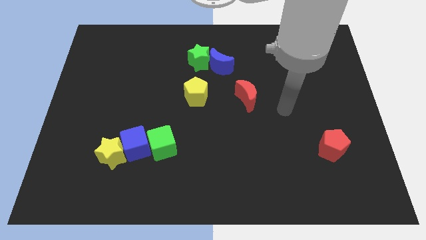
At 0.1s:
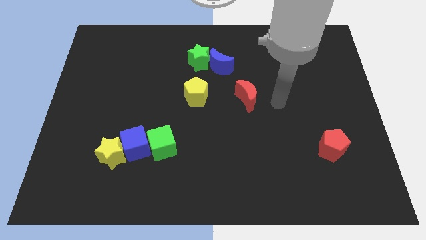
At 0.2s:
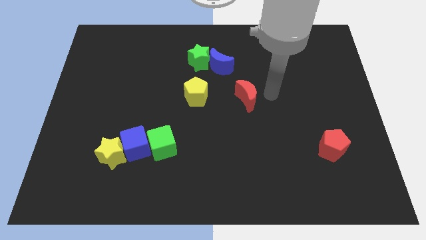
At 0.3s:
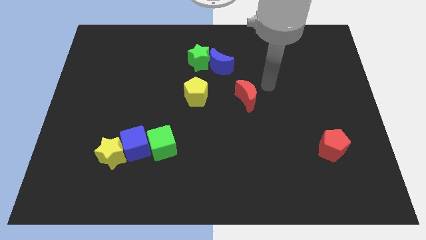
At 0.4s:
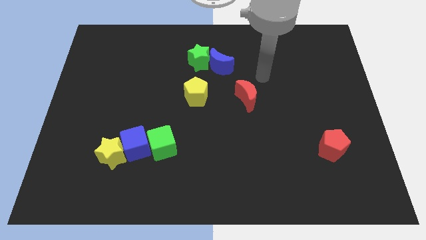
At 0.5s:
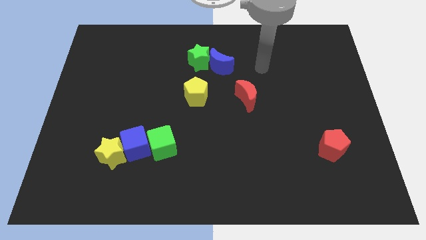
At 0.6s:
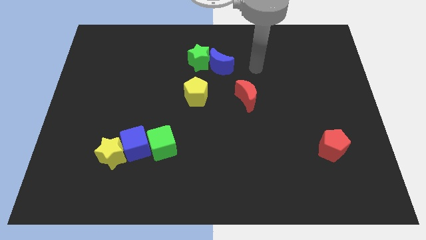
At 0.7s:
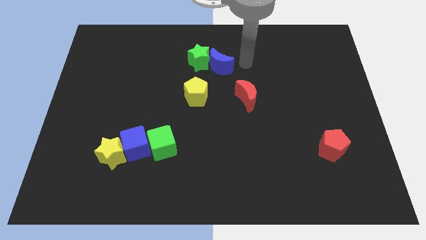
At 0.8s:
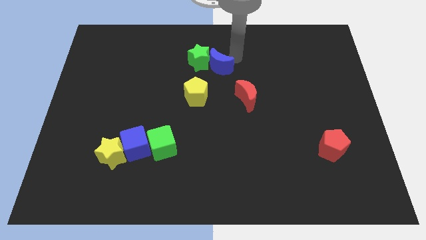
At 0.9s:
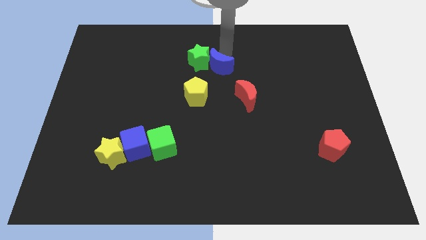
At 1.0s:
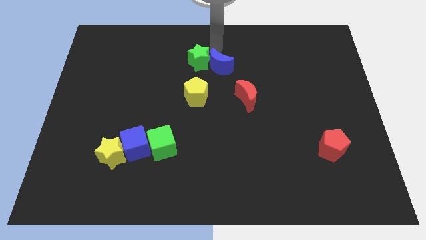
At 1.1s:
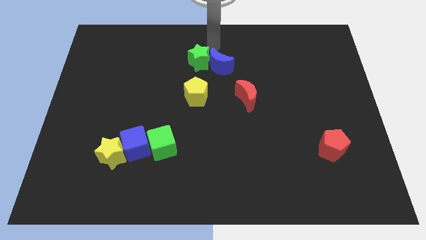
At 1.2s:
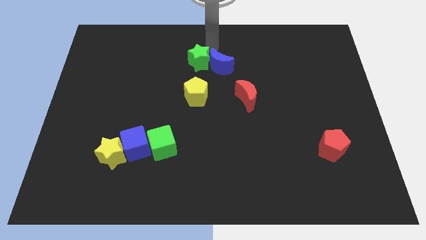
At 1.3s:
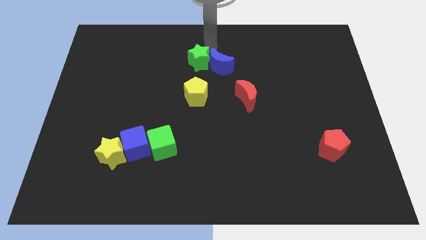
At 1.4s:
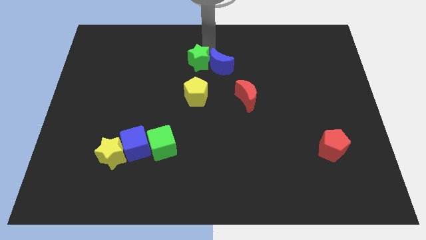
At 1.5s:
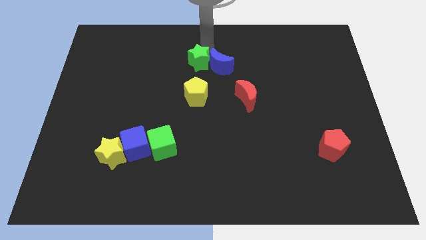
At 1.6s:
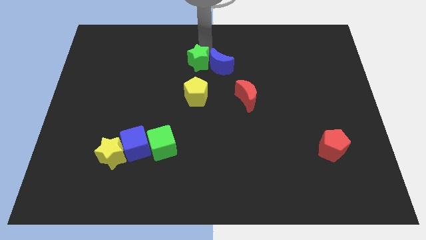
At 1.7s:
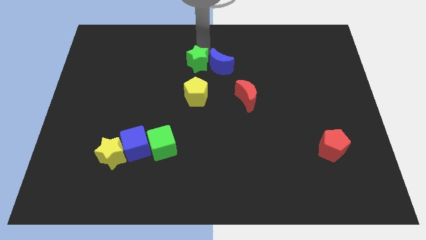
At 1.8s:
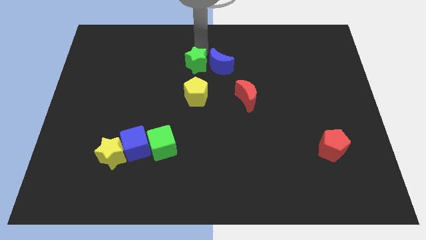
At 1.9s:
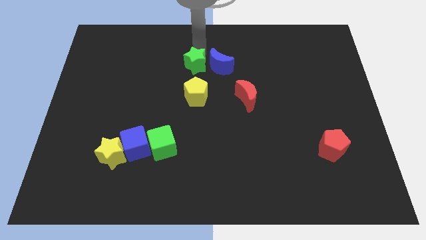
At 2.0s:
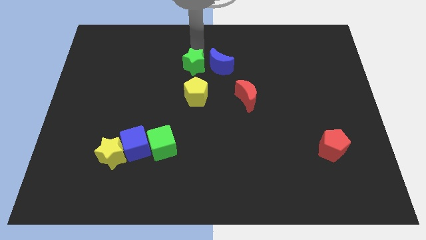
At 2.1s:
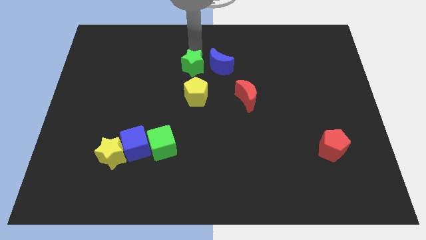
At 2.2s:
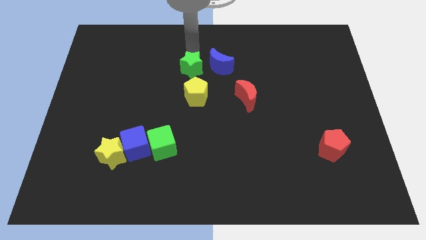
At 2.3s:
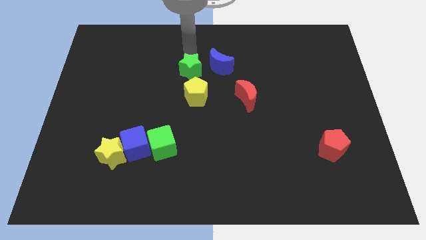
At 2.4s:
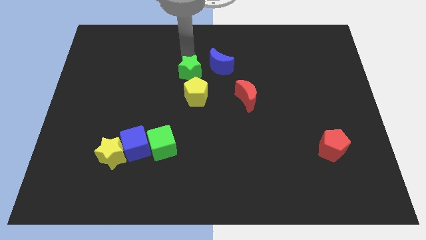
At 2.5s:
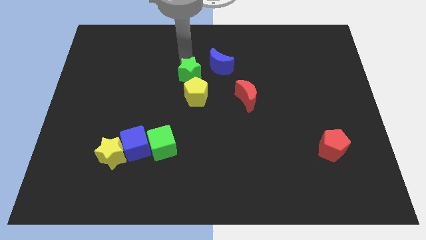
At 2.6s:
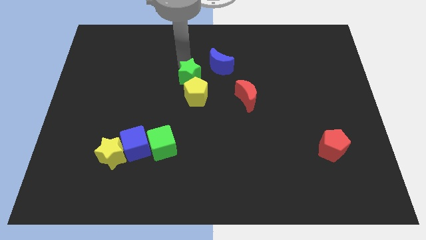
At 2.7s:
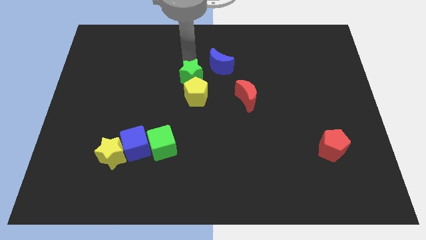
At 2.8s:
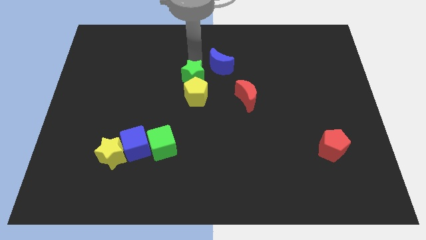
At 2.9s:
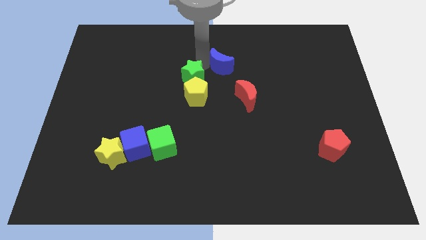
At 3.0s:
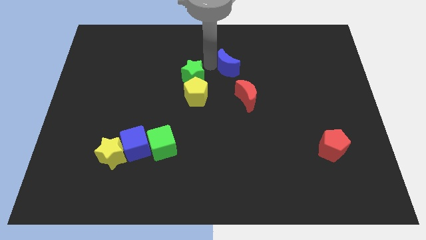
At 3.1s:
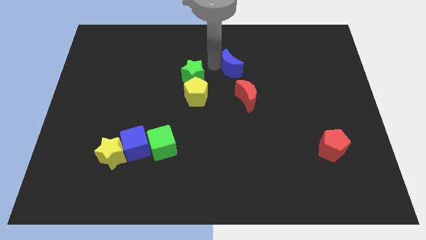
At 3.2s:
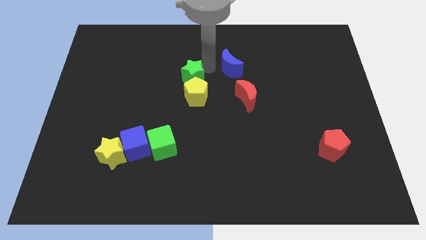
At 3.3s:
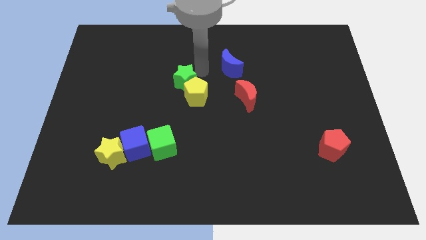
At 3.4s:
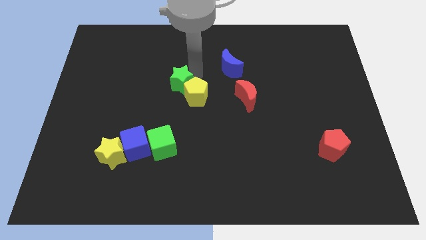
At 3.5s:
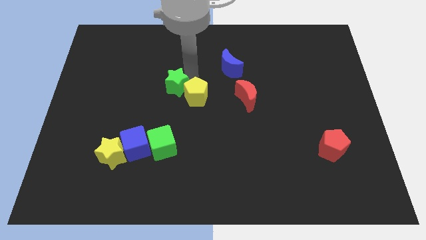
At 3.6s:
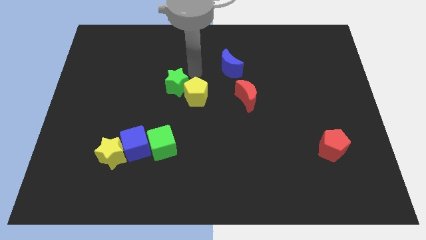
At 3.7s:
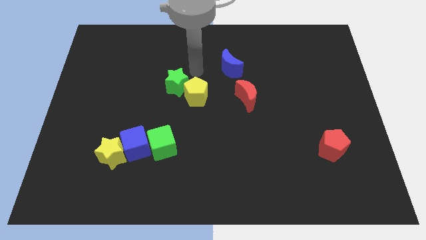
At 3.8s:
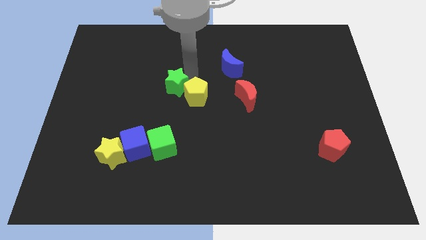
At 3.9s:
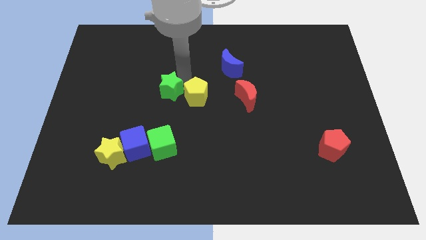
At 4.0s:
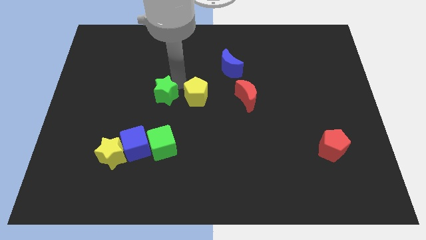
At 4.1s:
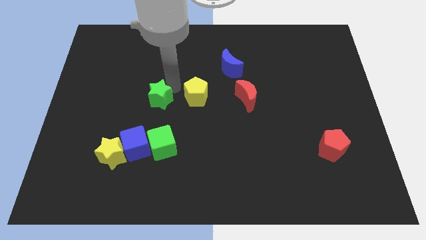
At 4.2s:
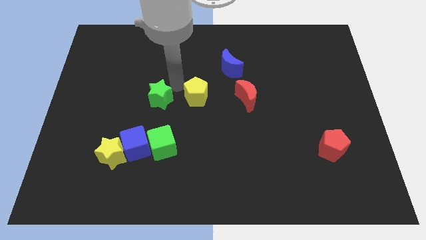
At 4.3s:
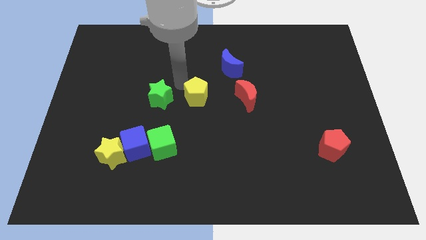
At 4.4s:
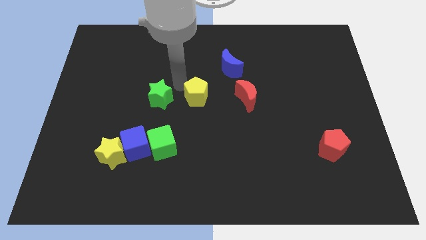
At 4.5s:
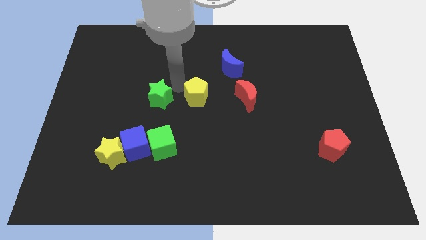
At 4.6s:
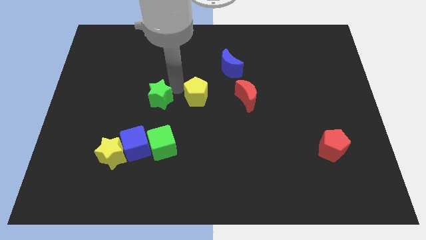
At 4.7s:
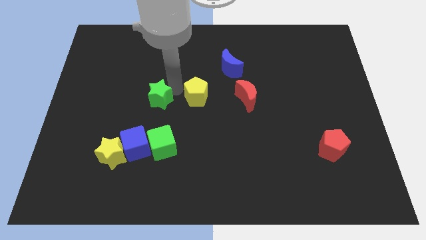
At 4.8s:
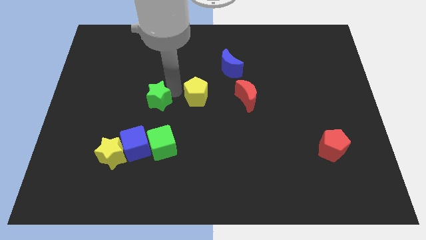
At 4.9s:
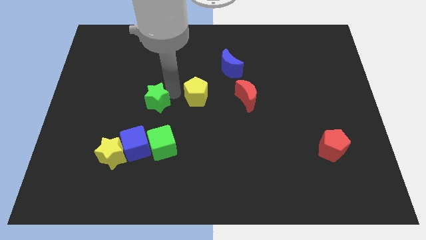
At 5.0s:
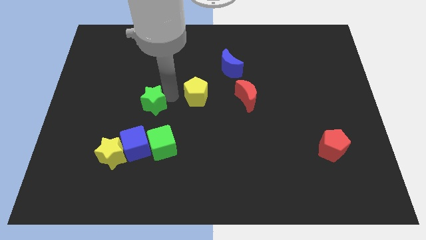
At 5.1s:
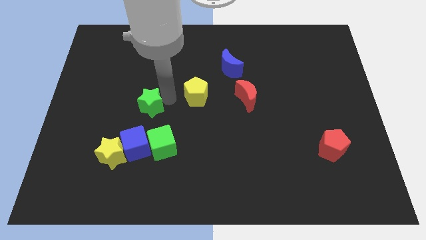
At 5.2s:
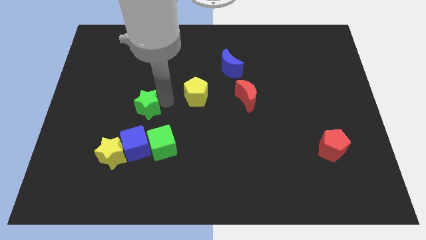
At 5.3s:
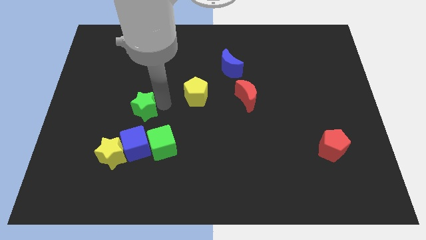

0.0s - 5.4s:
slide the green star down and then to the left

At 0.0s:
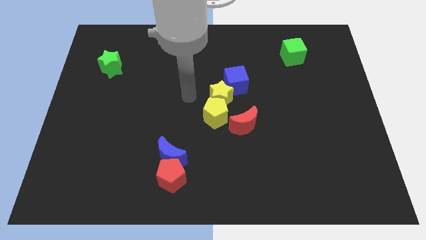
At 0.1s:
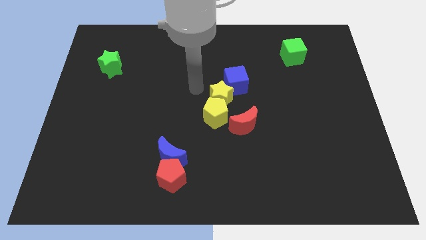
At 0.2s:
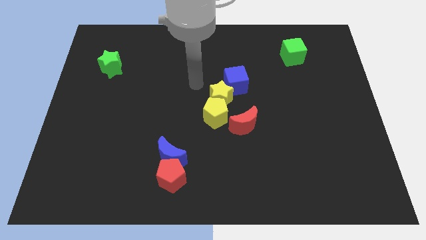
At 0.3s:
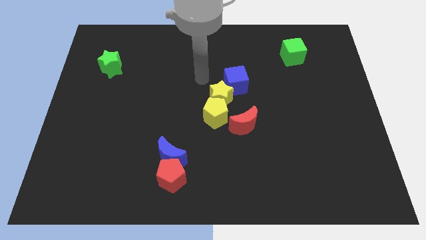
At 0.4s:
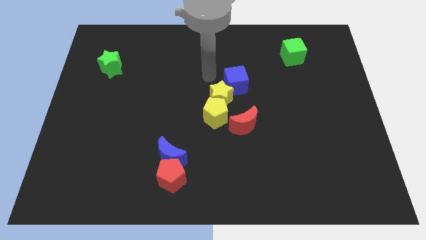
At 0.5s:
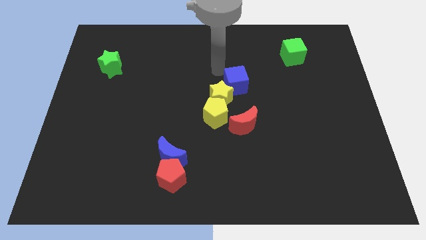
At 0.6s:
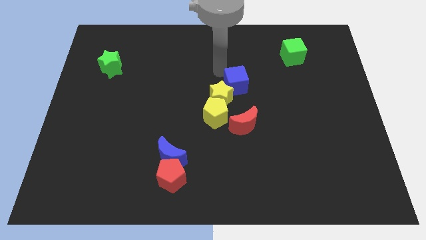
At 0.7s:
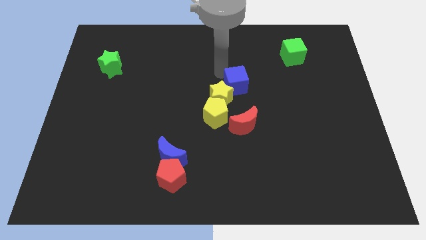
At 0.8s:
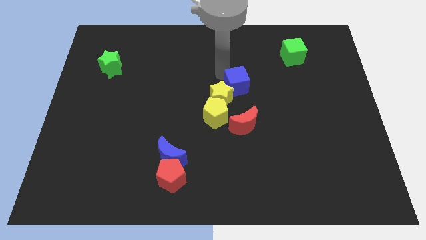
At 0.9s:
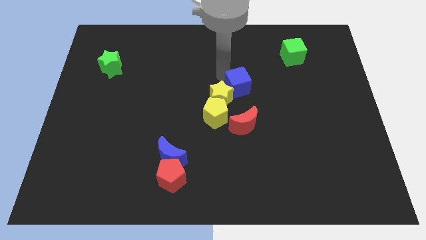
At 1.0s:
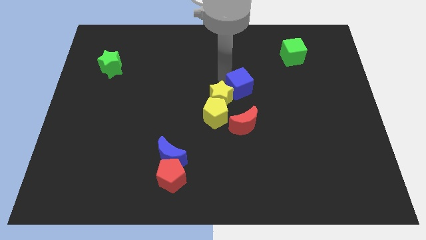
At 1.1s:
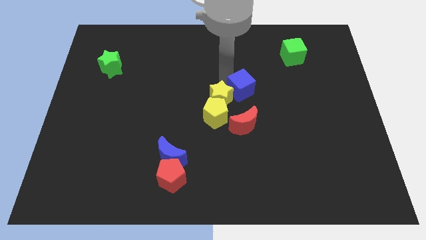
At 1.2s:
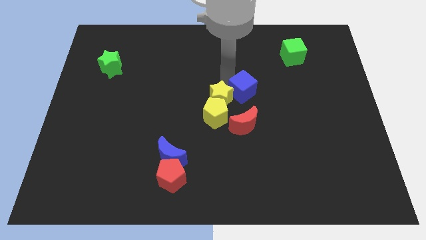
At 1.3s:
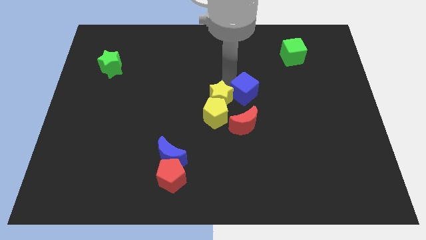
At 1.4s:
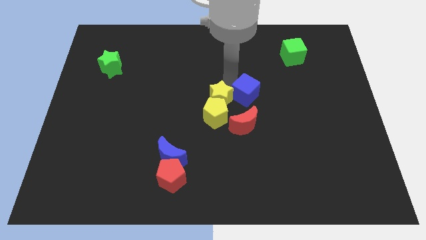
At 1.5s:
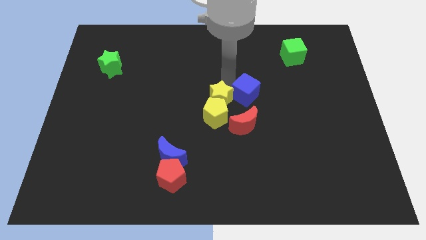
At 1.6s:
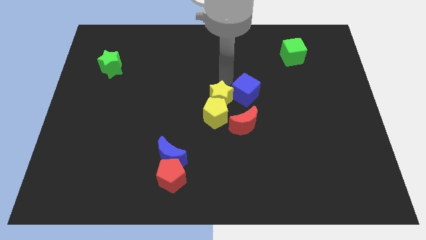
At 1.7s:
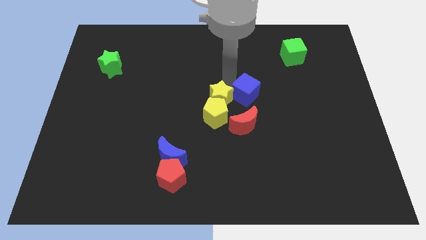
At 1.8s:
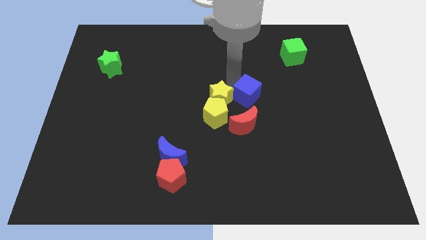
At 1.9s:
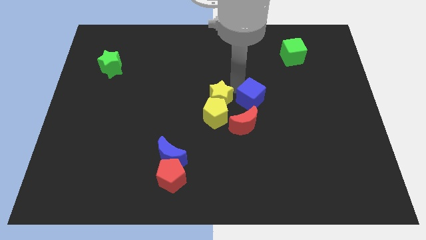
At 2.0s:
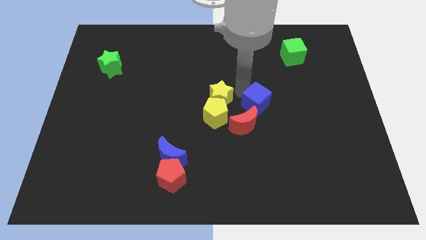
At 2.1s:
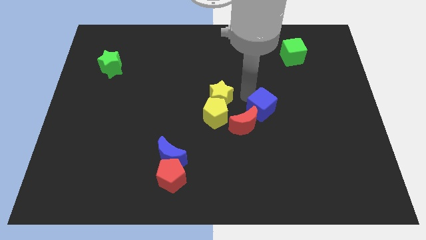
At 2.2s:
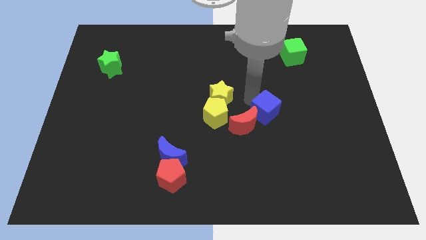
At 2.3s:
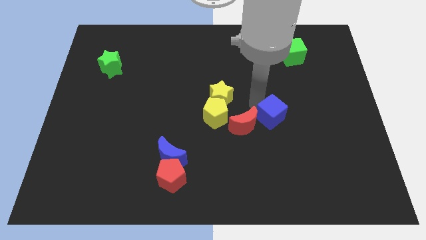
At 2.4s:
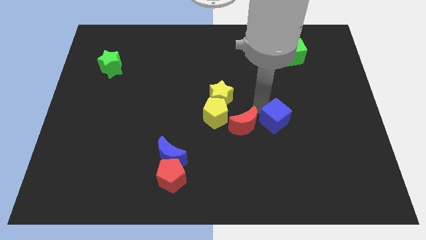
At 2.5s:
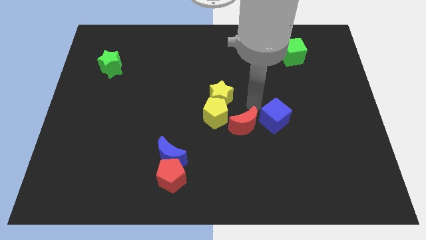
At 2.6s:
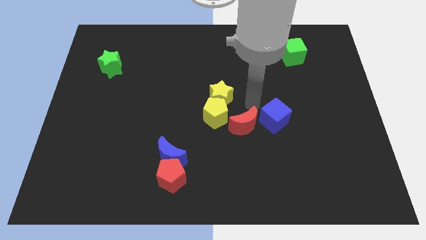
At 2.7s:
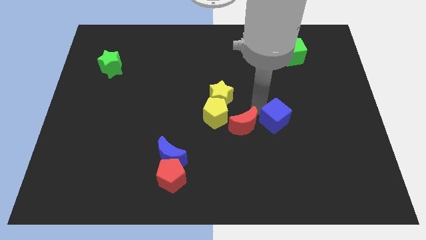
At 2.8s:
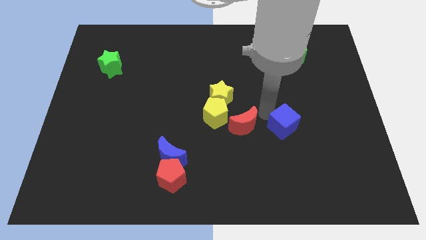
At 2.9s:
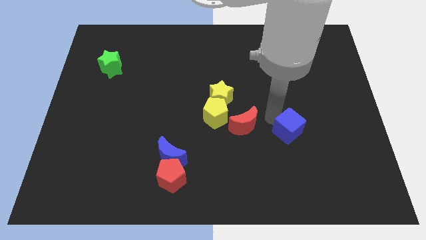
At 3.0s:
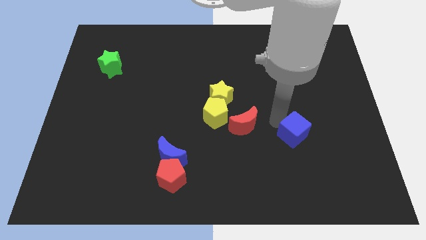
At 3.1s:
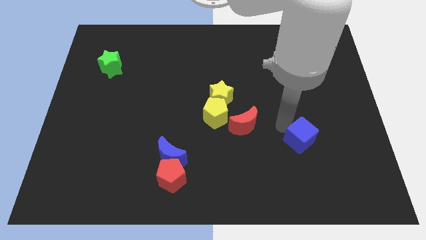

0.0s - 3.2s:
push the blue cube diagonally down and to the right
